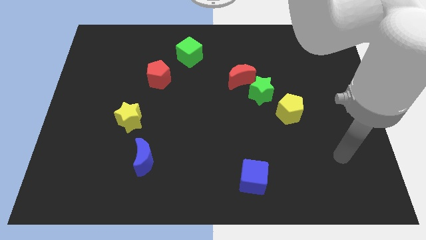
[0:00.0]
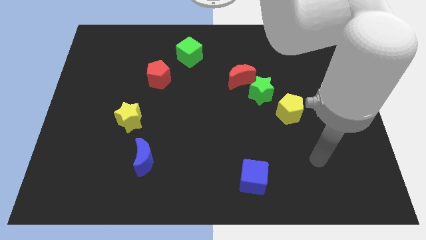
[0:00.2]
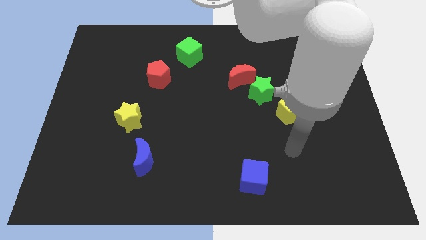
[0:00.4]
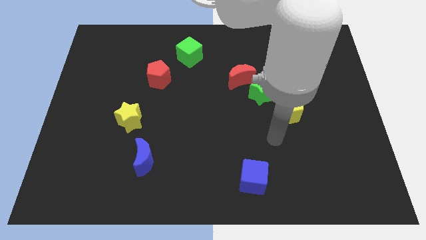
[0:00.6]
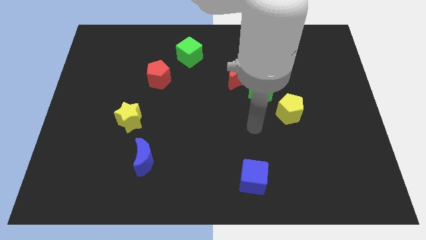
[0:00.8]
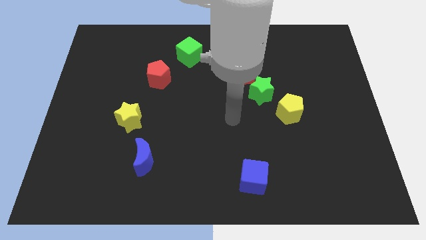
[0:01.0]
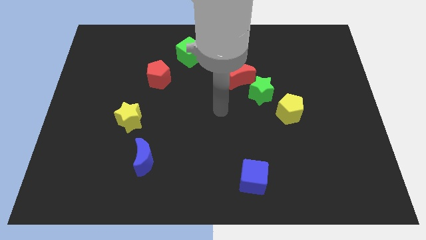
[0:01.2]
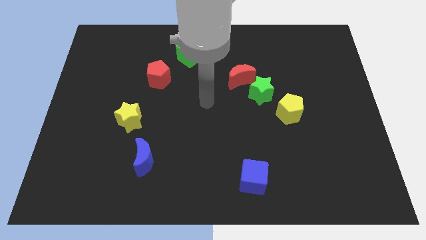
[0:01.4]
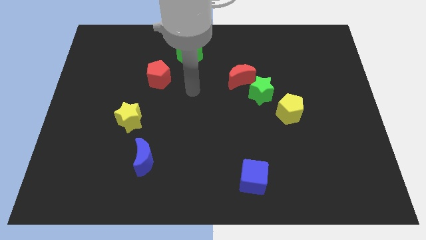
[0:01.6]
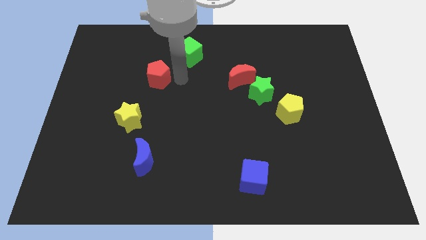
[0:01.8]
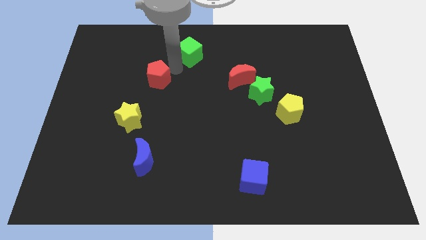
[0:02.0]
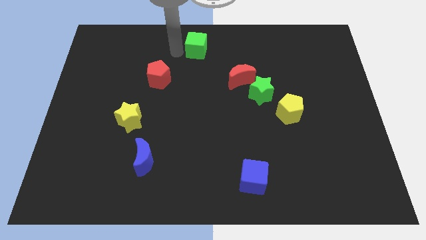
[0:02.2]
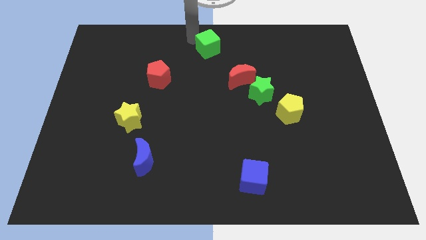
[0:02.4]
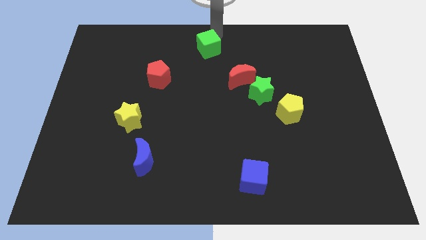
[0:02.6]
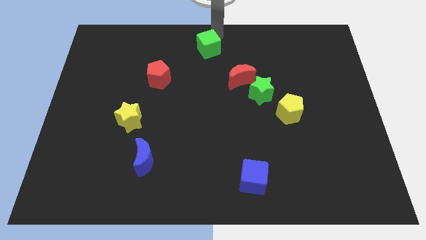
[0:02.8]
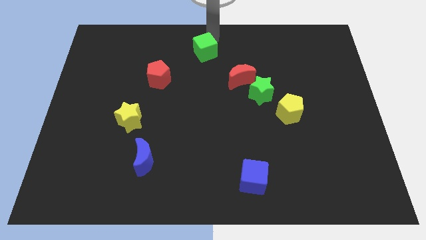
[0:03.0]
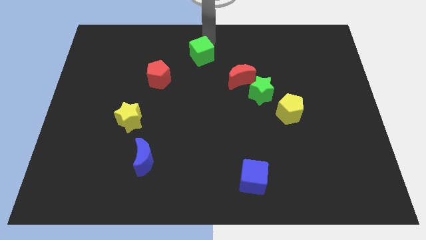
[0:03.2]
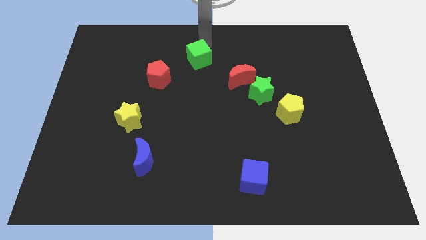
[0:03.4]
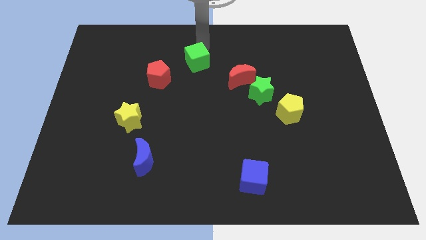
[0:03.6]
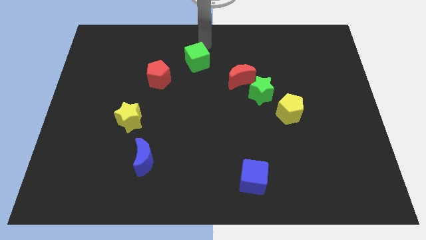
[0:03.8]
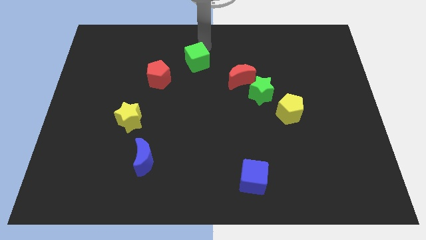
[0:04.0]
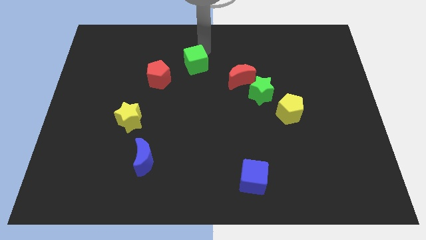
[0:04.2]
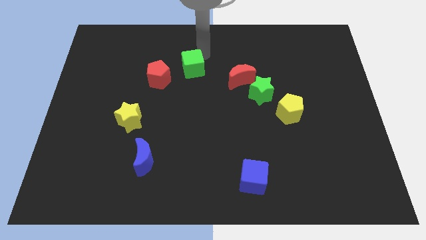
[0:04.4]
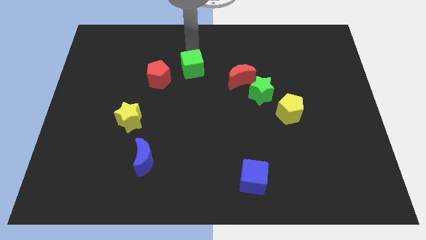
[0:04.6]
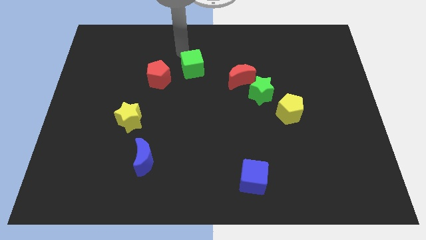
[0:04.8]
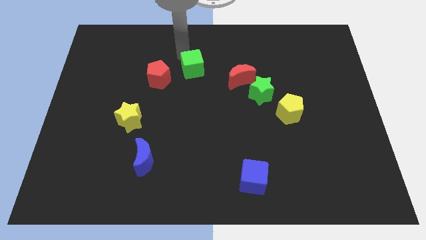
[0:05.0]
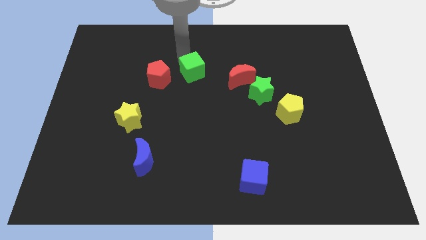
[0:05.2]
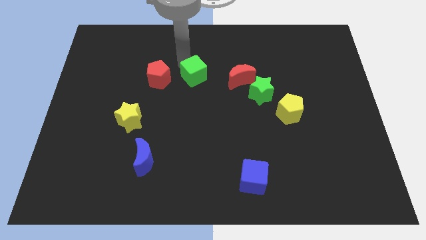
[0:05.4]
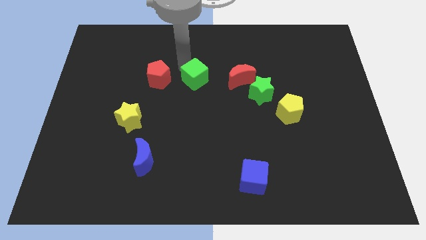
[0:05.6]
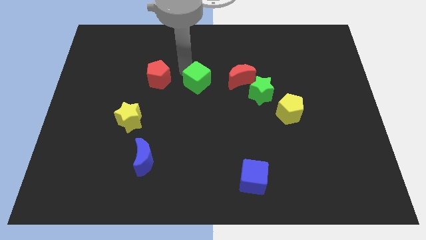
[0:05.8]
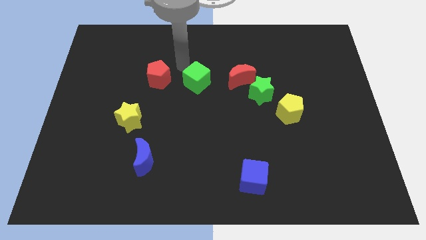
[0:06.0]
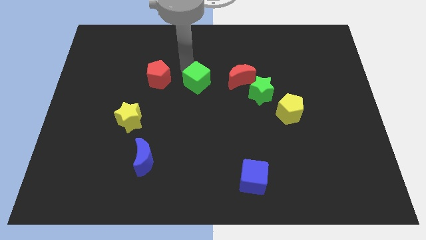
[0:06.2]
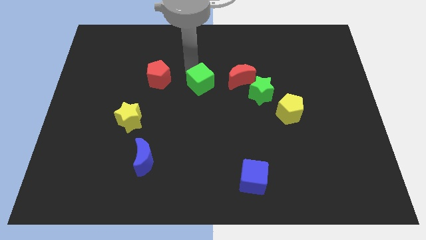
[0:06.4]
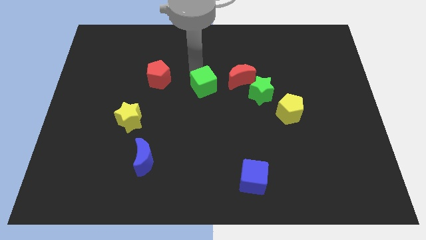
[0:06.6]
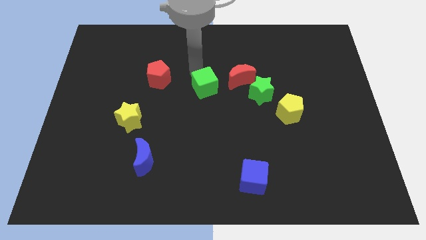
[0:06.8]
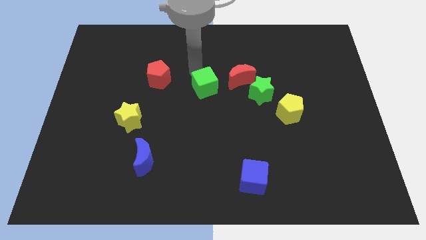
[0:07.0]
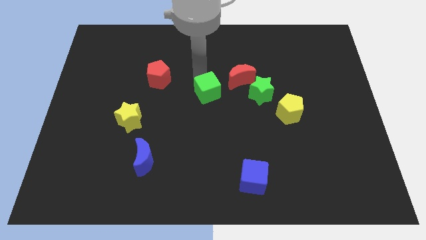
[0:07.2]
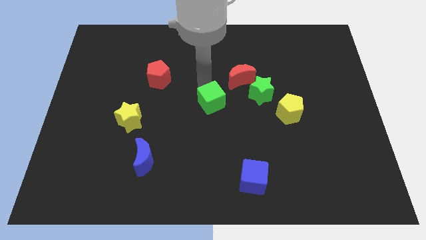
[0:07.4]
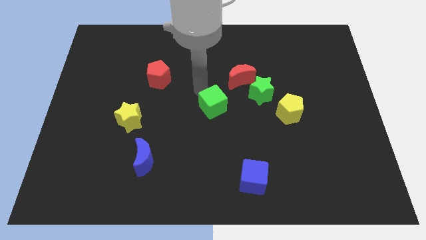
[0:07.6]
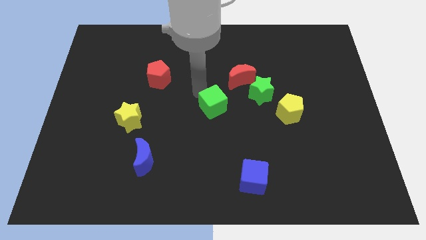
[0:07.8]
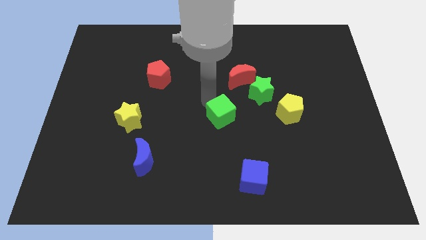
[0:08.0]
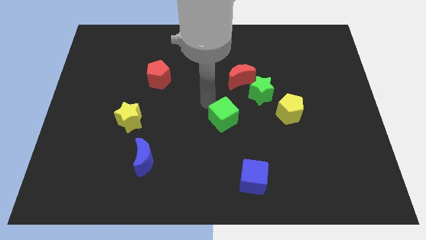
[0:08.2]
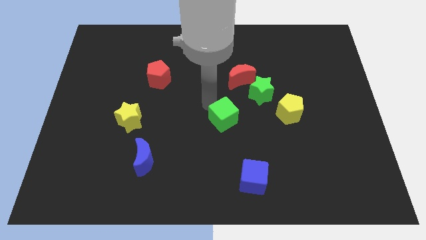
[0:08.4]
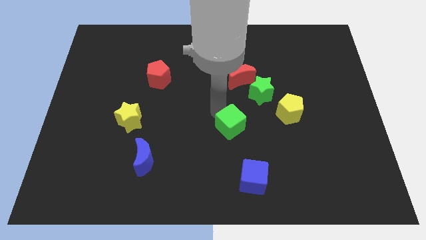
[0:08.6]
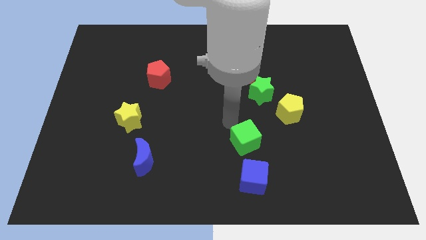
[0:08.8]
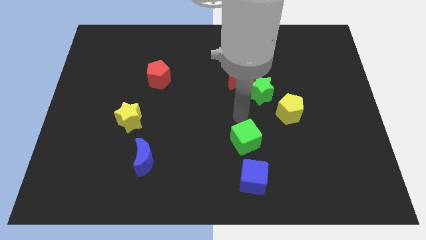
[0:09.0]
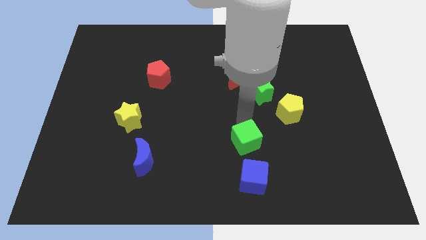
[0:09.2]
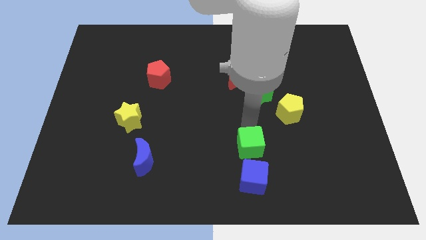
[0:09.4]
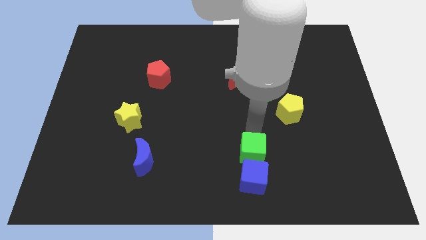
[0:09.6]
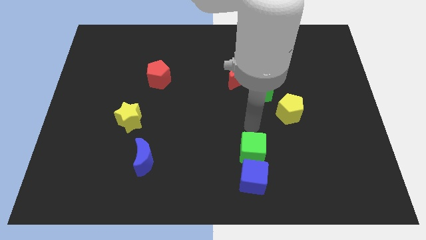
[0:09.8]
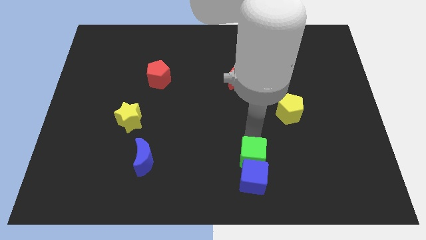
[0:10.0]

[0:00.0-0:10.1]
slide the green cube next to the blue cube

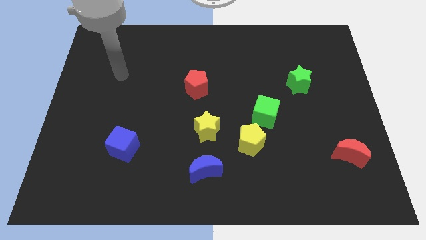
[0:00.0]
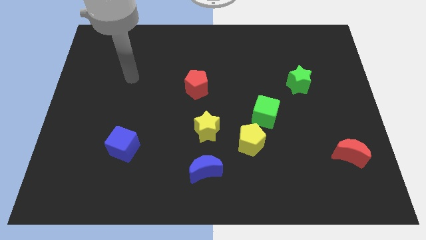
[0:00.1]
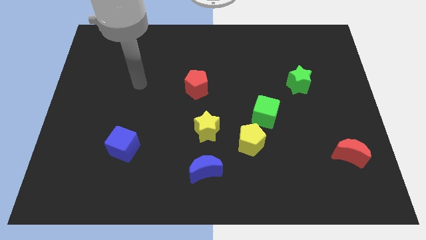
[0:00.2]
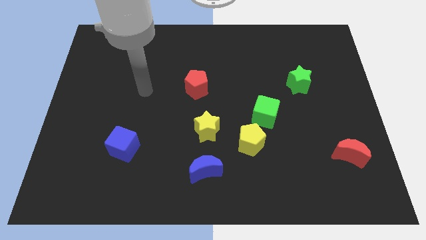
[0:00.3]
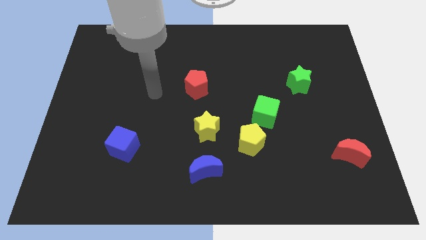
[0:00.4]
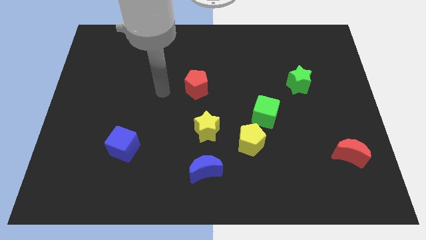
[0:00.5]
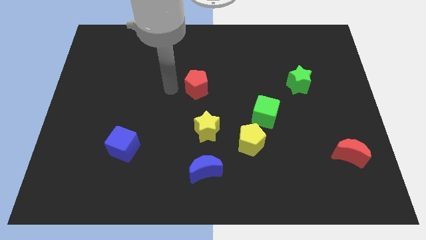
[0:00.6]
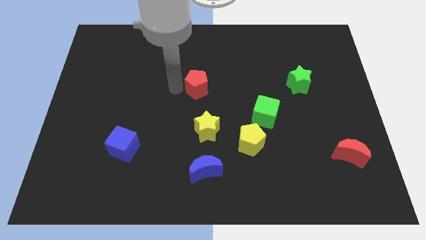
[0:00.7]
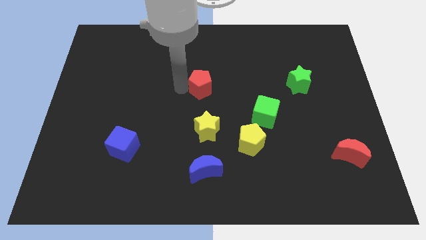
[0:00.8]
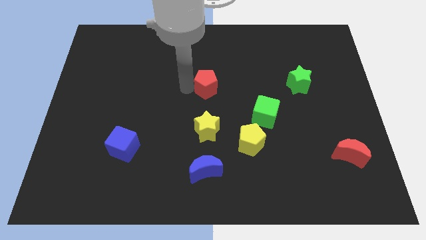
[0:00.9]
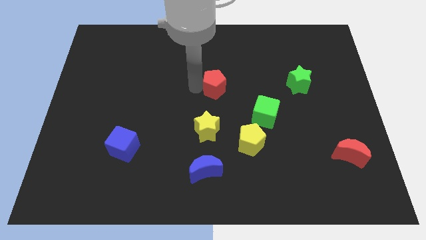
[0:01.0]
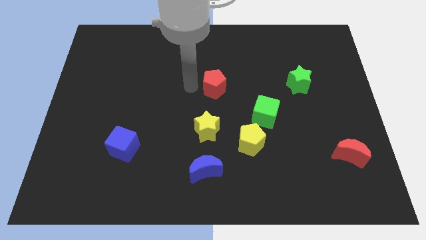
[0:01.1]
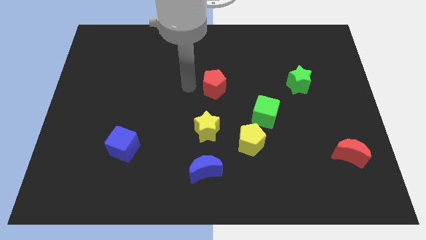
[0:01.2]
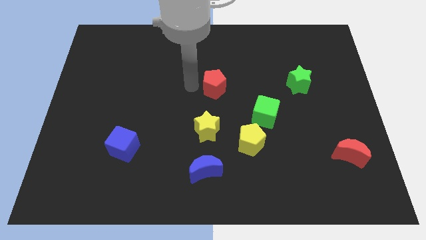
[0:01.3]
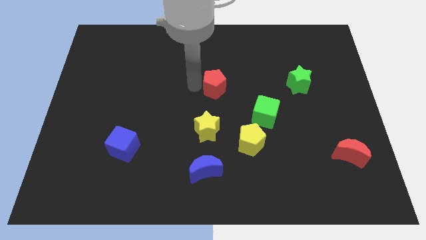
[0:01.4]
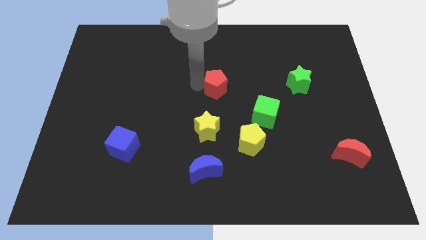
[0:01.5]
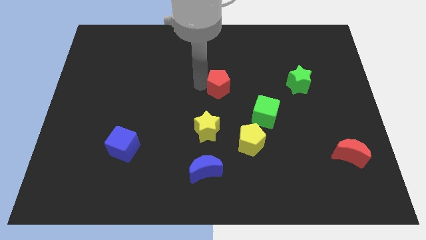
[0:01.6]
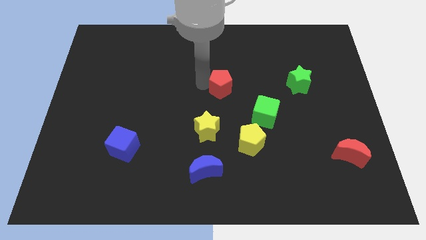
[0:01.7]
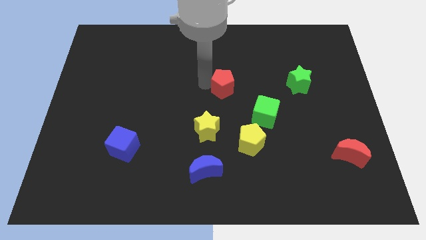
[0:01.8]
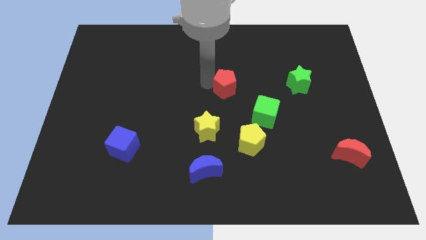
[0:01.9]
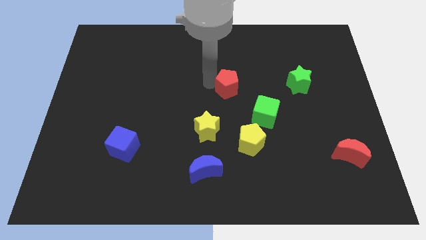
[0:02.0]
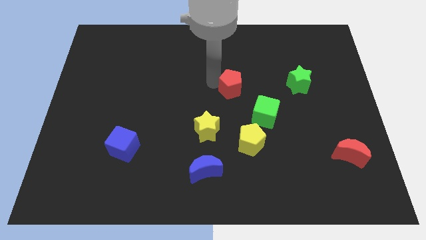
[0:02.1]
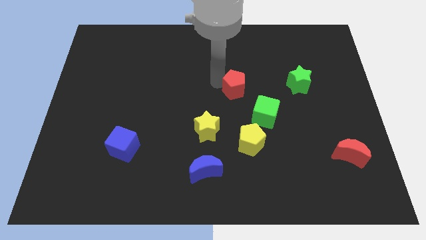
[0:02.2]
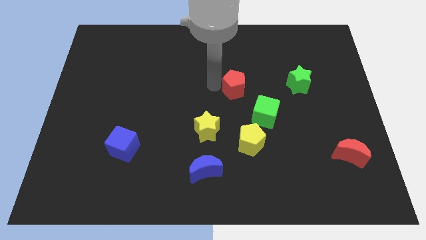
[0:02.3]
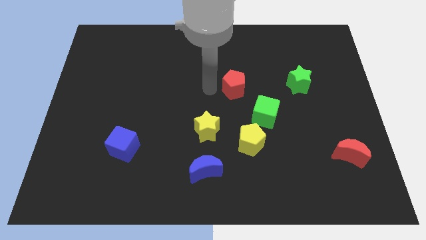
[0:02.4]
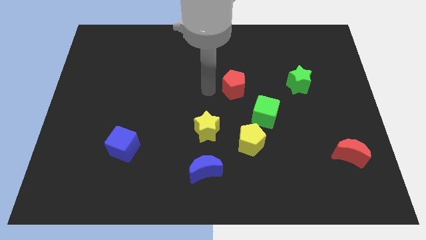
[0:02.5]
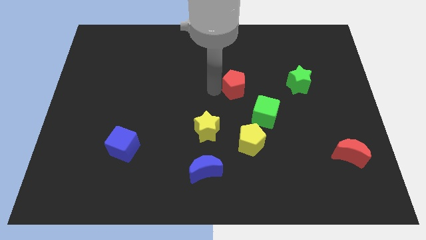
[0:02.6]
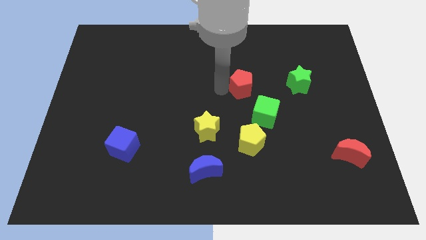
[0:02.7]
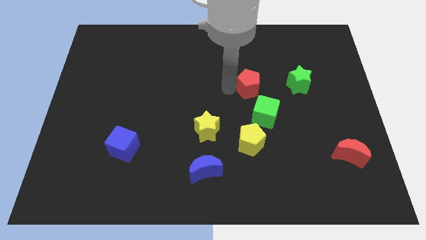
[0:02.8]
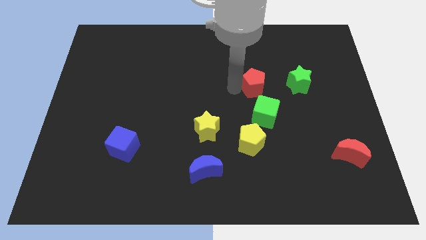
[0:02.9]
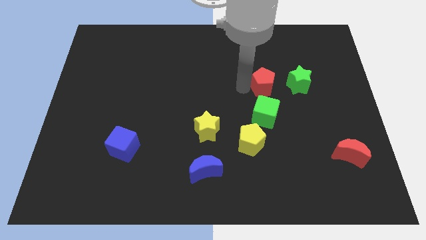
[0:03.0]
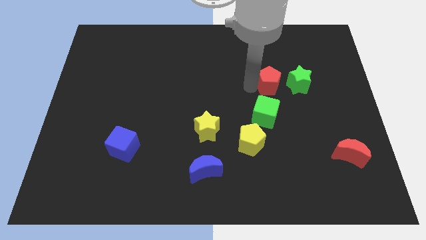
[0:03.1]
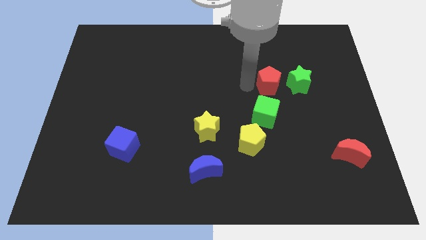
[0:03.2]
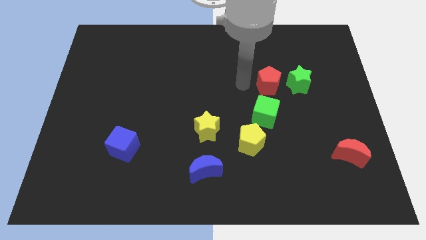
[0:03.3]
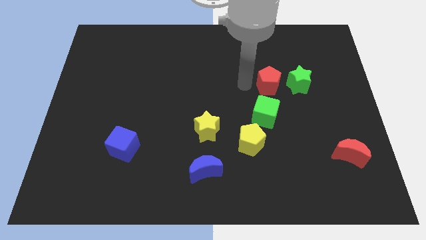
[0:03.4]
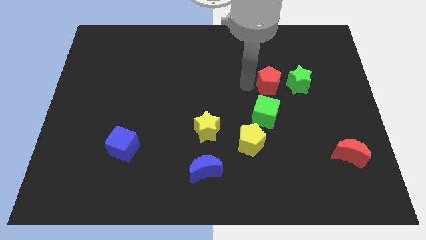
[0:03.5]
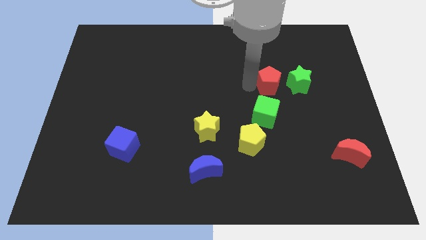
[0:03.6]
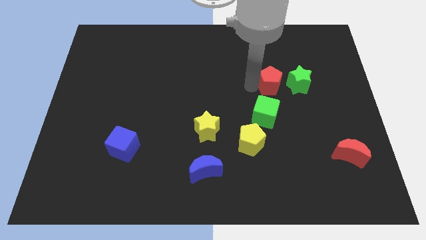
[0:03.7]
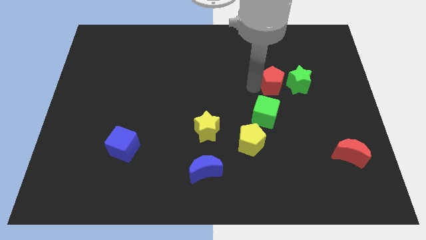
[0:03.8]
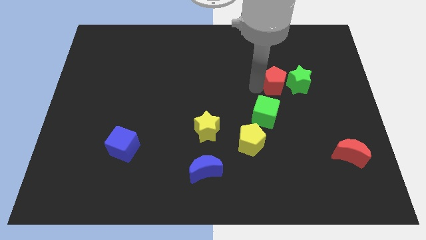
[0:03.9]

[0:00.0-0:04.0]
push the red pentagon next to the green star
